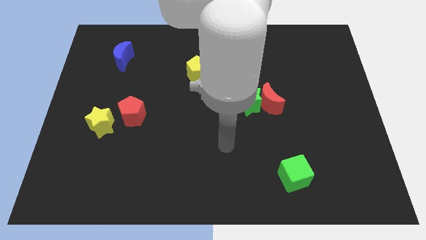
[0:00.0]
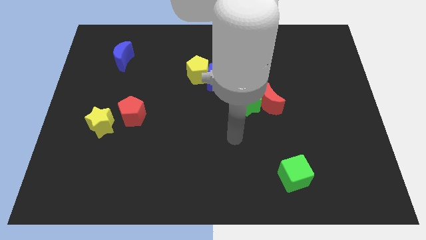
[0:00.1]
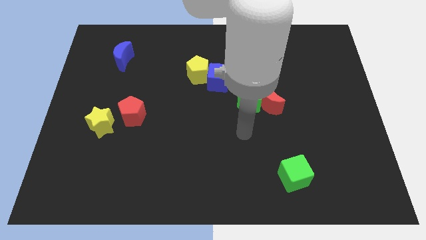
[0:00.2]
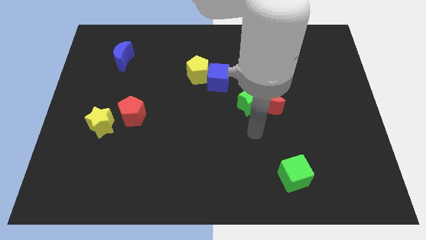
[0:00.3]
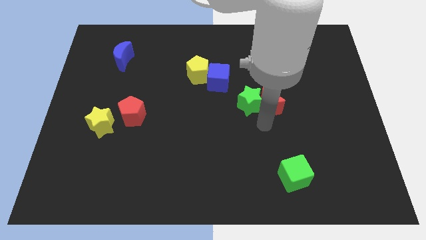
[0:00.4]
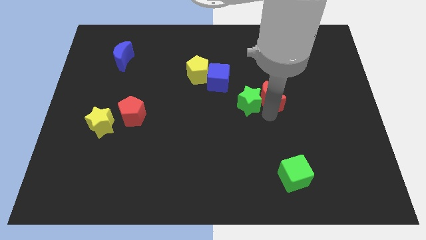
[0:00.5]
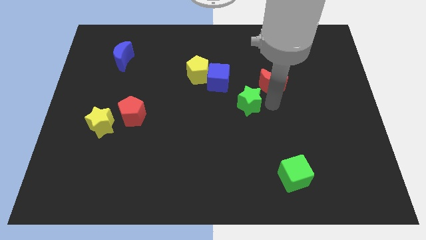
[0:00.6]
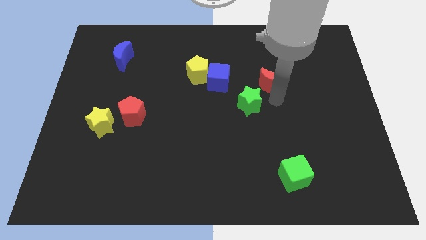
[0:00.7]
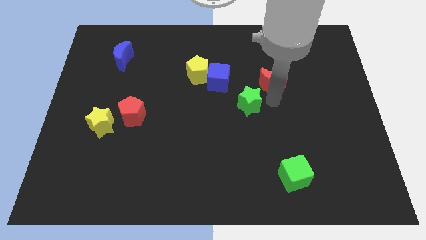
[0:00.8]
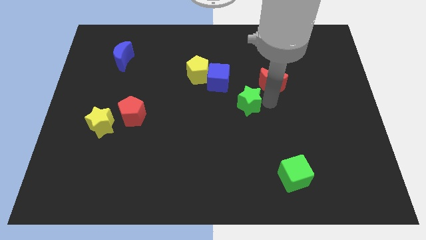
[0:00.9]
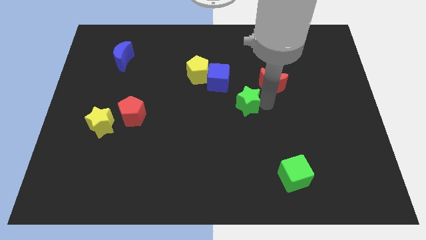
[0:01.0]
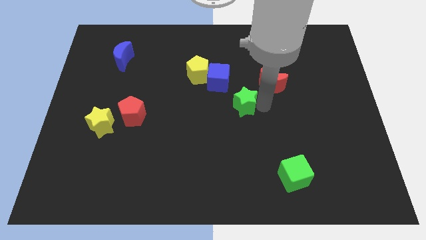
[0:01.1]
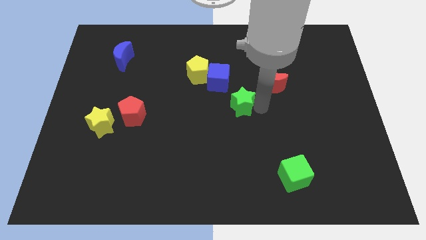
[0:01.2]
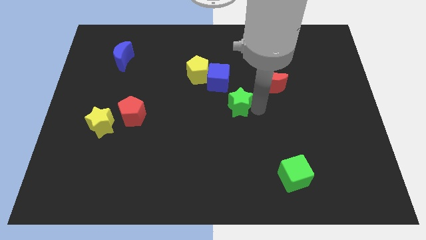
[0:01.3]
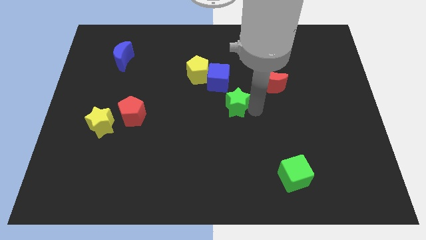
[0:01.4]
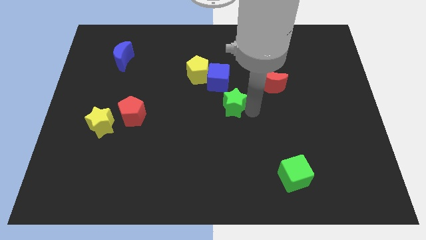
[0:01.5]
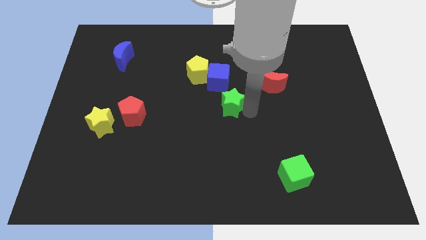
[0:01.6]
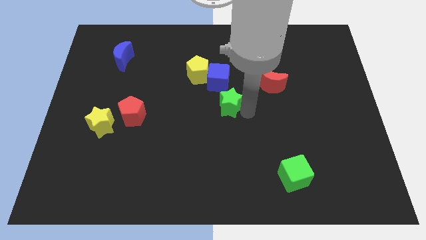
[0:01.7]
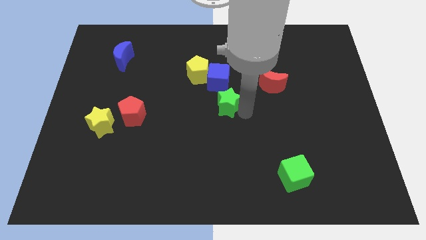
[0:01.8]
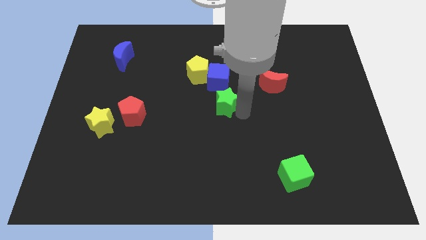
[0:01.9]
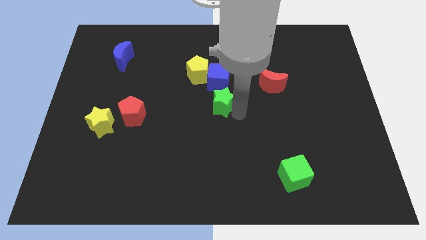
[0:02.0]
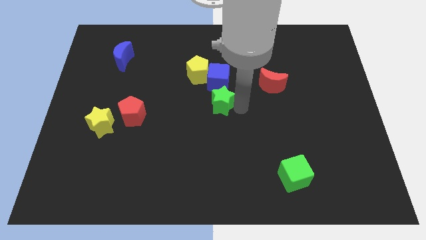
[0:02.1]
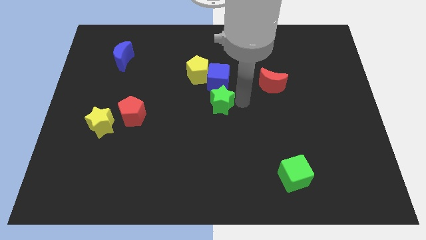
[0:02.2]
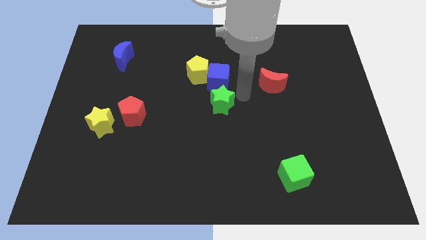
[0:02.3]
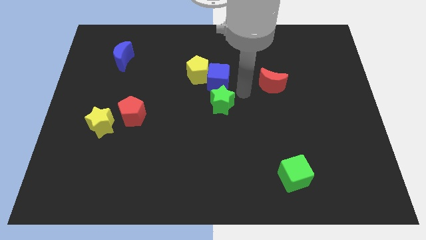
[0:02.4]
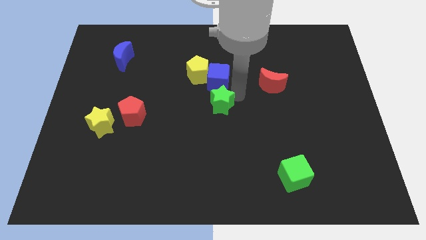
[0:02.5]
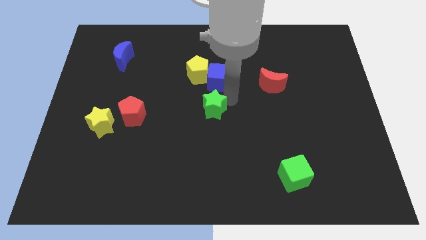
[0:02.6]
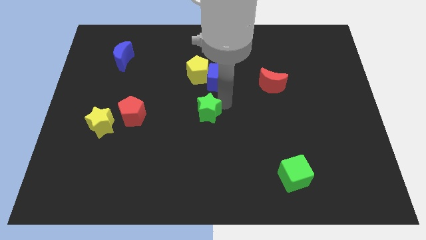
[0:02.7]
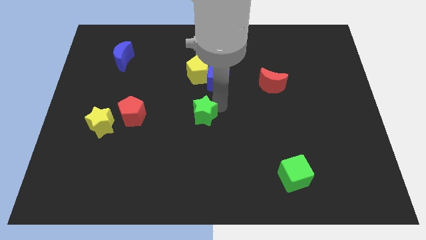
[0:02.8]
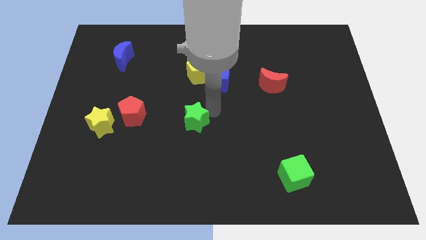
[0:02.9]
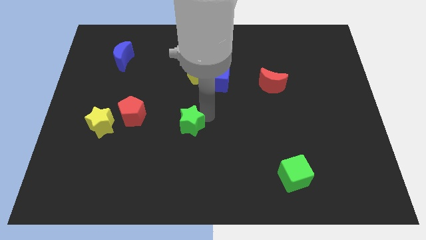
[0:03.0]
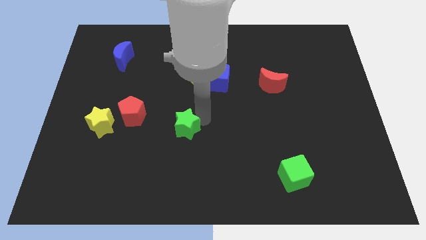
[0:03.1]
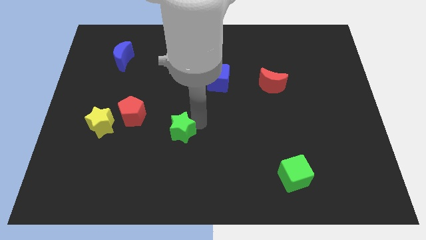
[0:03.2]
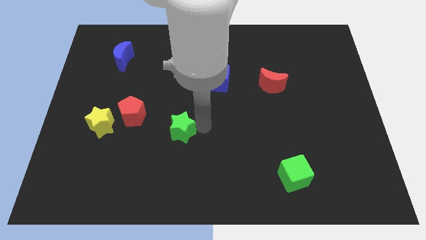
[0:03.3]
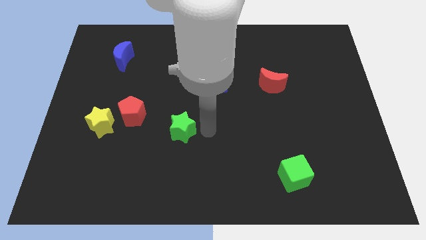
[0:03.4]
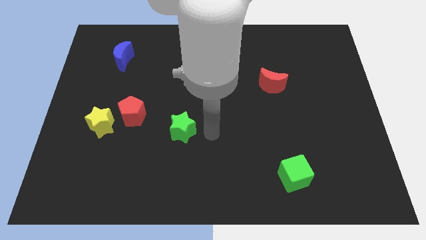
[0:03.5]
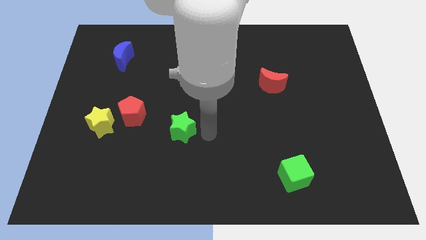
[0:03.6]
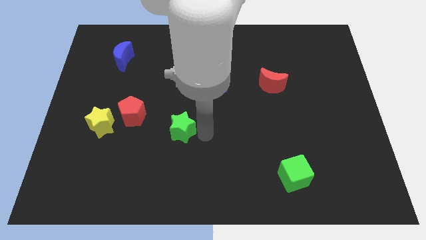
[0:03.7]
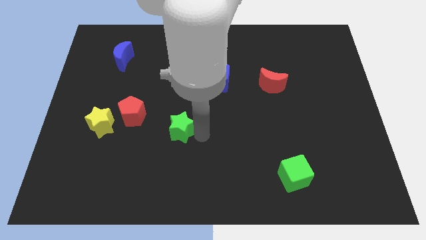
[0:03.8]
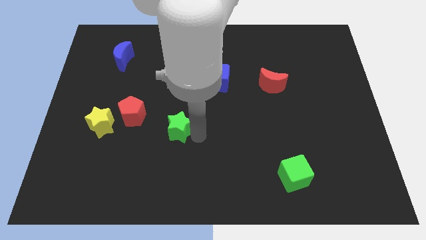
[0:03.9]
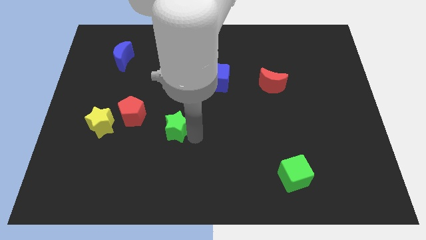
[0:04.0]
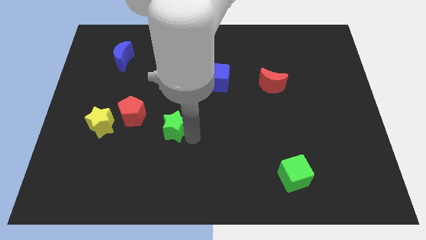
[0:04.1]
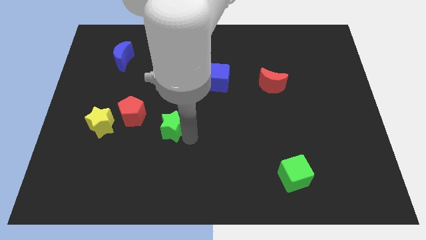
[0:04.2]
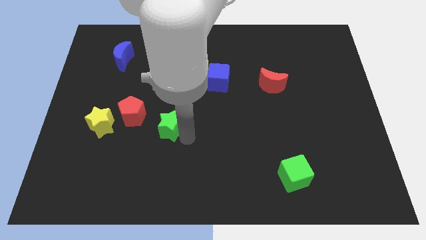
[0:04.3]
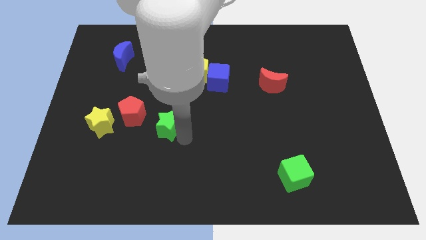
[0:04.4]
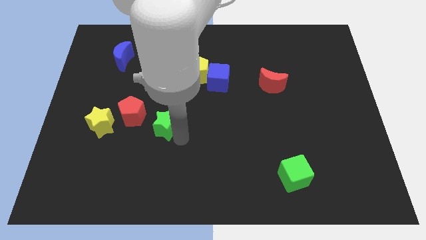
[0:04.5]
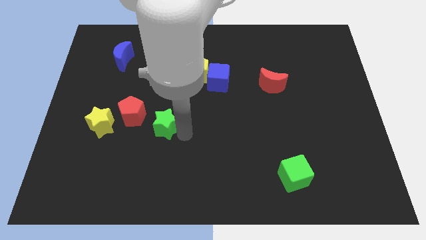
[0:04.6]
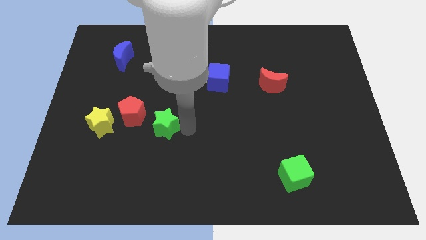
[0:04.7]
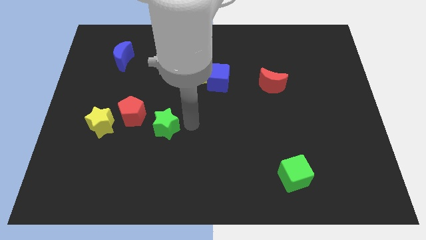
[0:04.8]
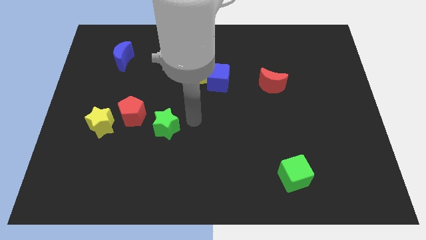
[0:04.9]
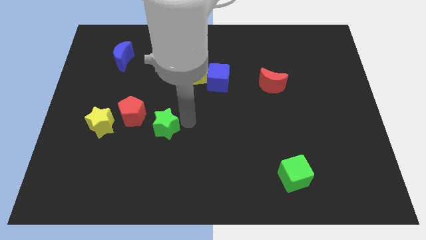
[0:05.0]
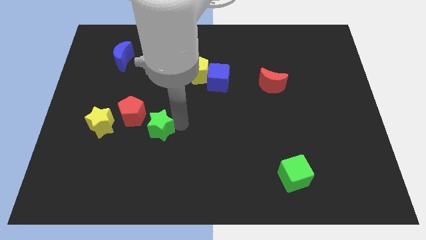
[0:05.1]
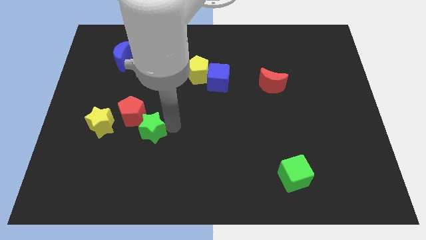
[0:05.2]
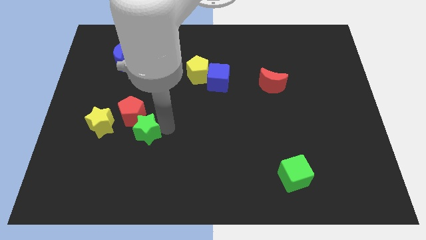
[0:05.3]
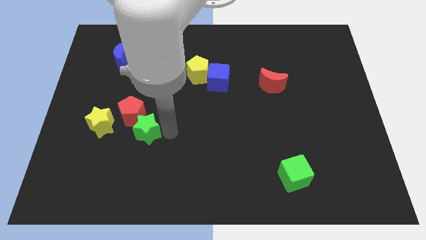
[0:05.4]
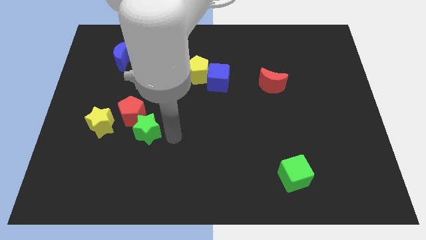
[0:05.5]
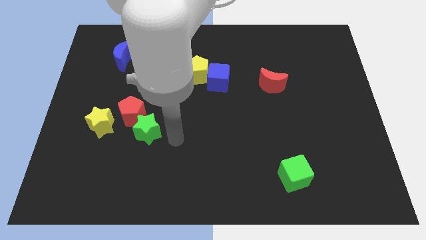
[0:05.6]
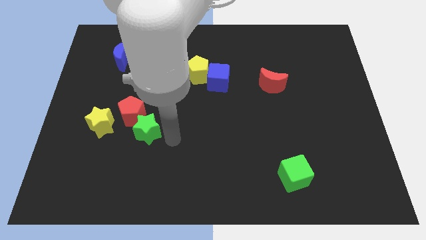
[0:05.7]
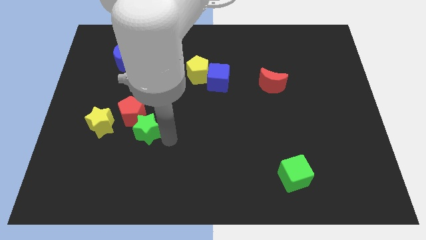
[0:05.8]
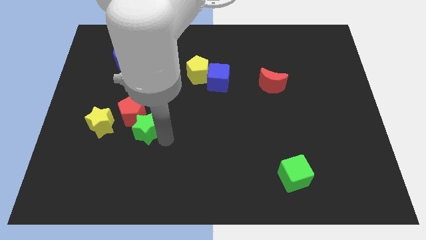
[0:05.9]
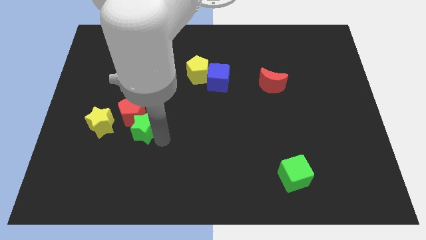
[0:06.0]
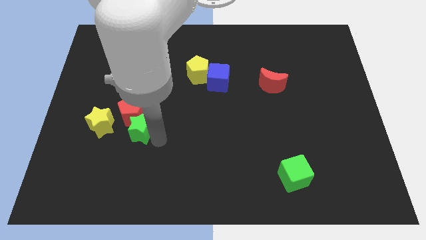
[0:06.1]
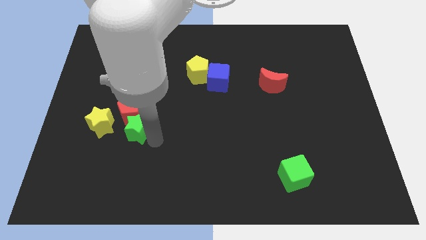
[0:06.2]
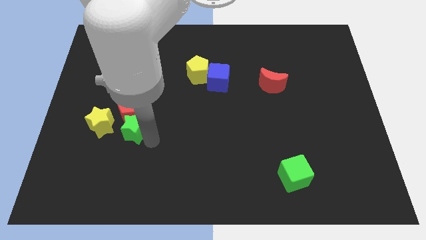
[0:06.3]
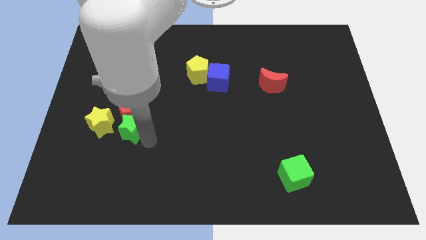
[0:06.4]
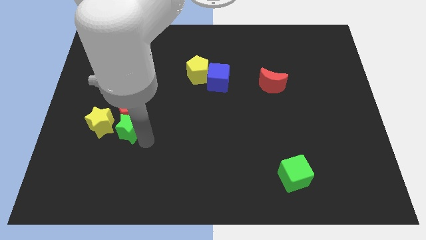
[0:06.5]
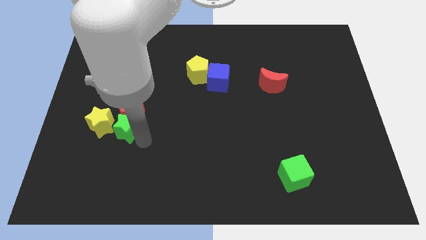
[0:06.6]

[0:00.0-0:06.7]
push the green star close to the yellow star

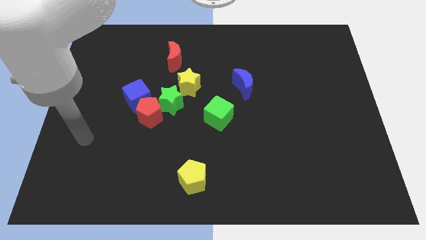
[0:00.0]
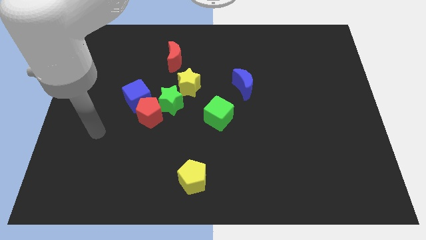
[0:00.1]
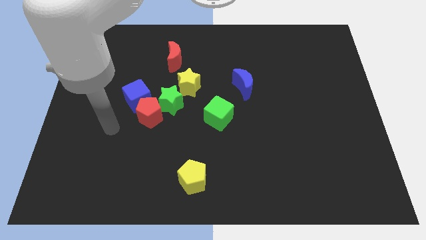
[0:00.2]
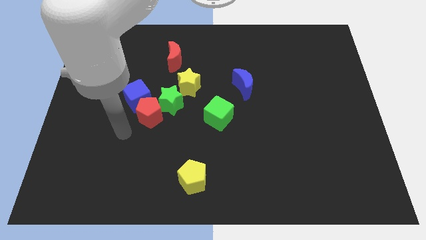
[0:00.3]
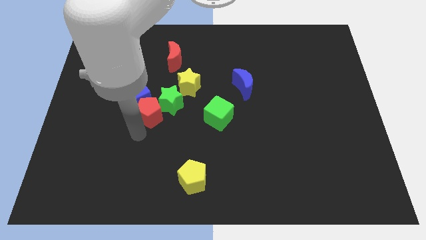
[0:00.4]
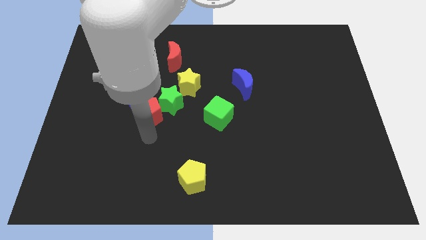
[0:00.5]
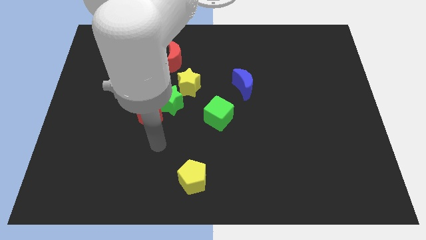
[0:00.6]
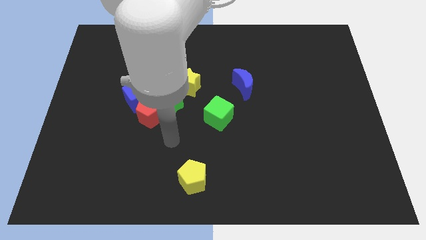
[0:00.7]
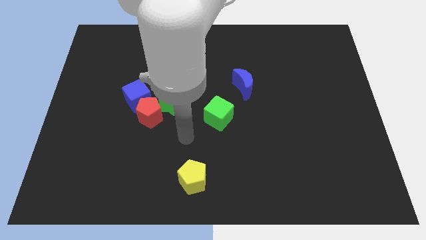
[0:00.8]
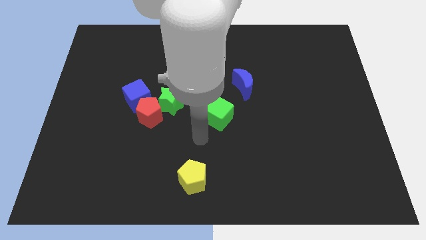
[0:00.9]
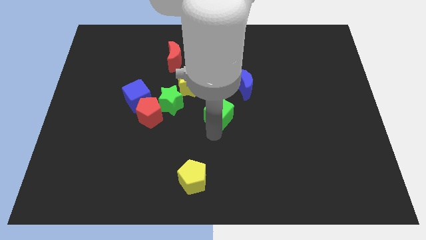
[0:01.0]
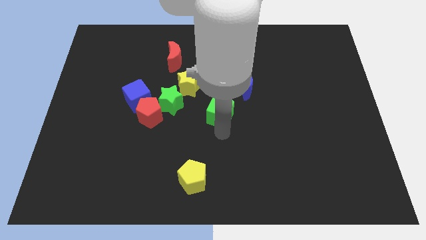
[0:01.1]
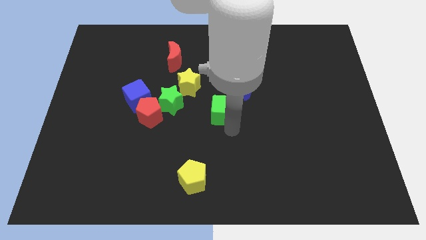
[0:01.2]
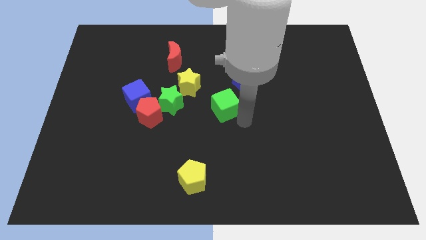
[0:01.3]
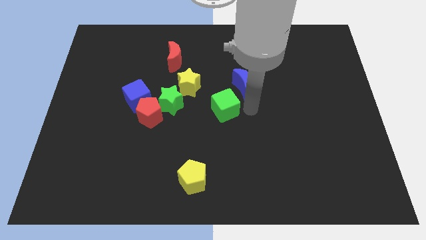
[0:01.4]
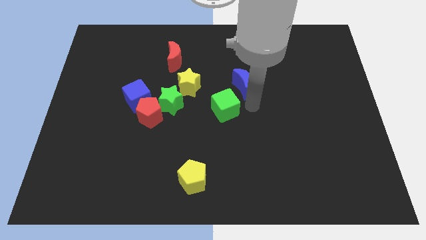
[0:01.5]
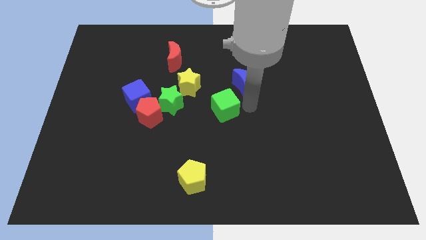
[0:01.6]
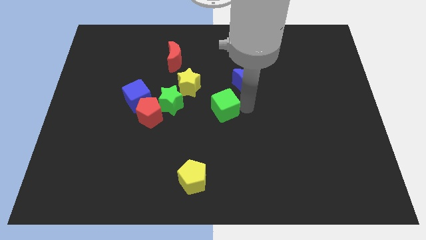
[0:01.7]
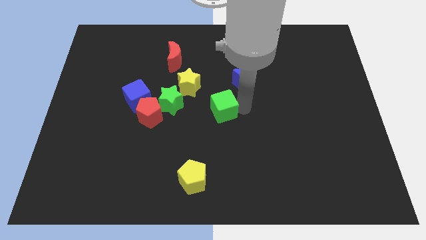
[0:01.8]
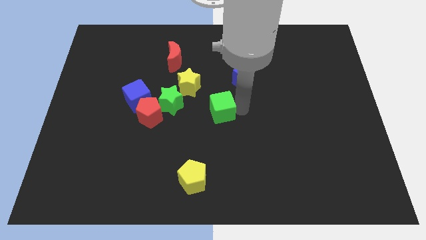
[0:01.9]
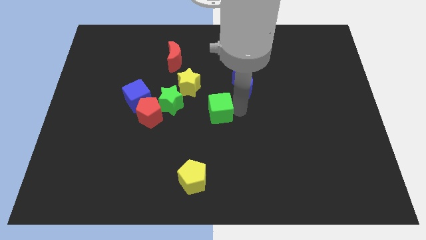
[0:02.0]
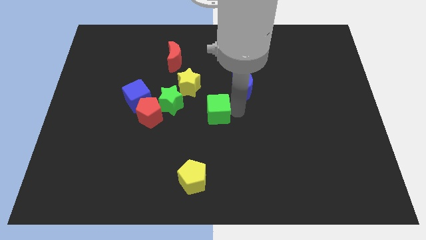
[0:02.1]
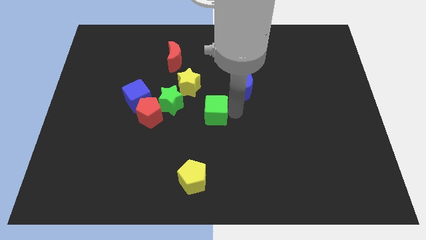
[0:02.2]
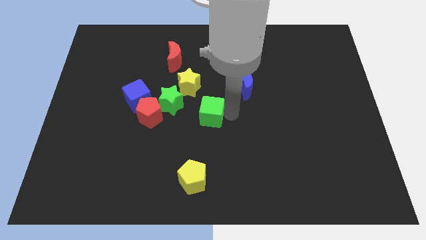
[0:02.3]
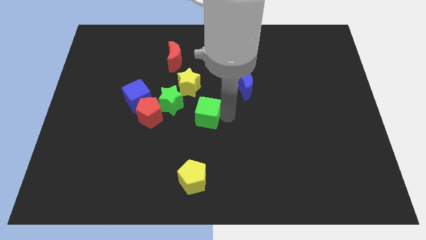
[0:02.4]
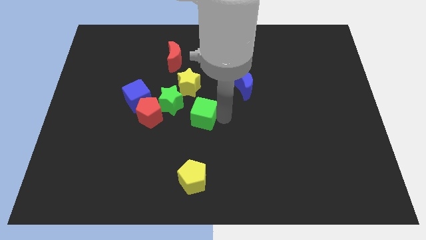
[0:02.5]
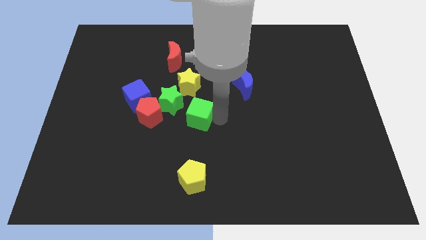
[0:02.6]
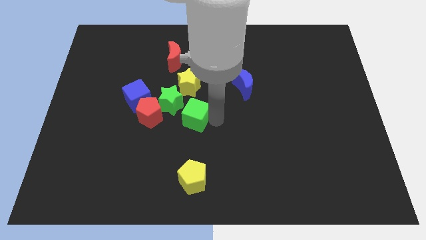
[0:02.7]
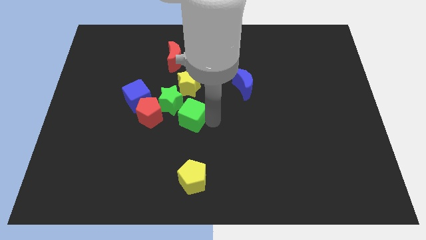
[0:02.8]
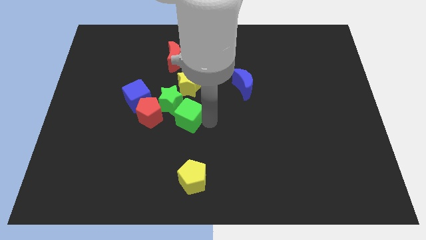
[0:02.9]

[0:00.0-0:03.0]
move the green cube close to the green star
